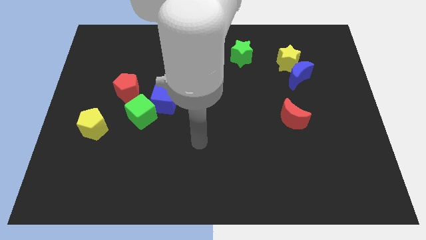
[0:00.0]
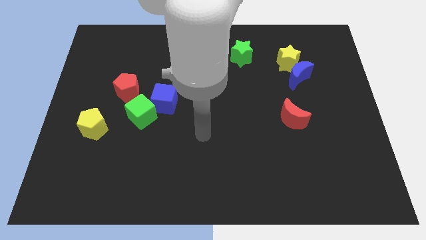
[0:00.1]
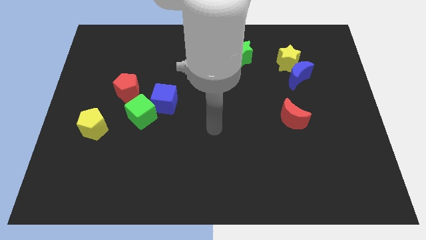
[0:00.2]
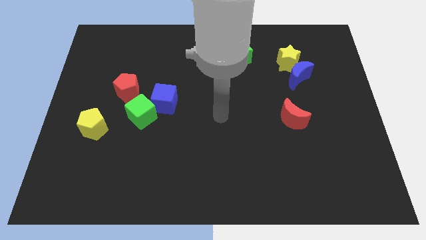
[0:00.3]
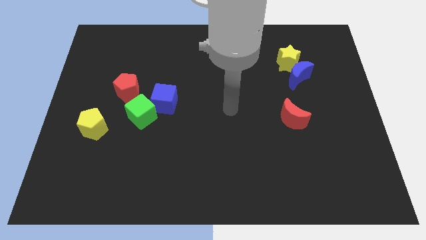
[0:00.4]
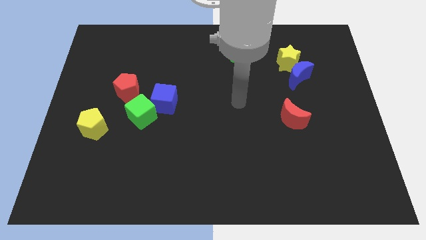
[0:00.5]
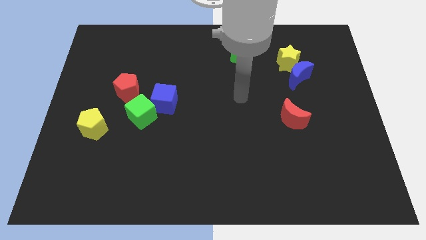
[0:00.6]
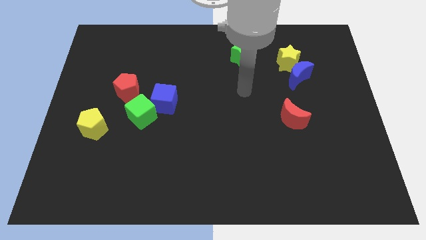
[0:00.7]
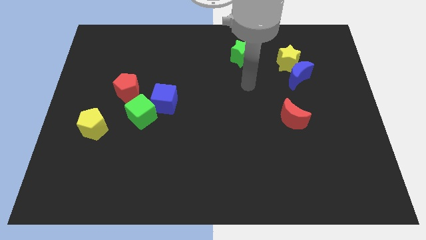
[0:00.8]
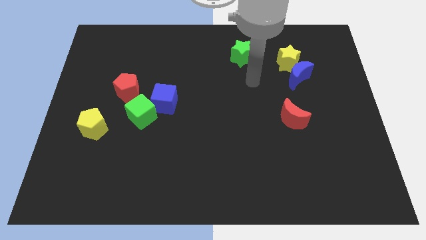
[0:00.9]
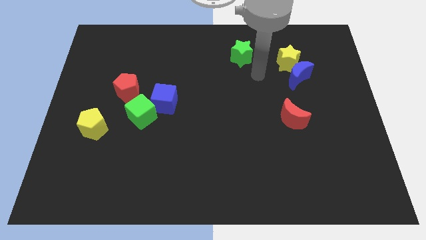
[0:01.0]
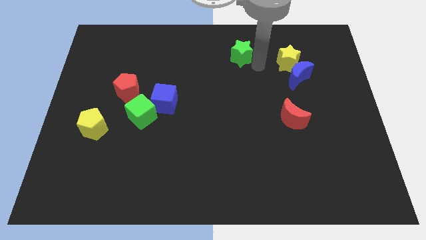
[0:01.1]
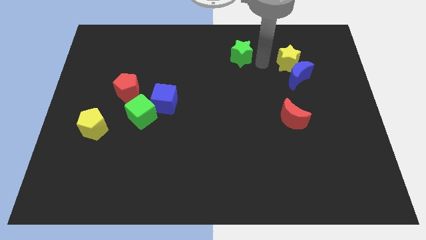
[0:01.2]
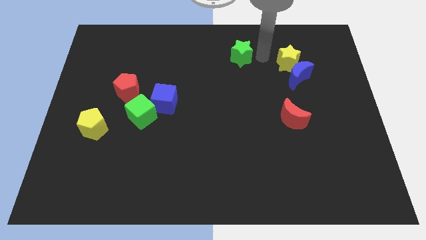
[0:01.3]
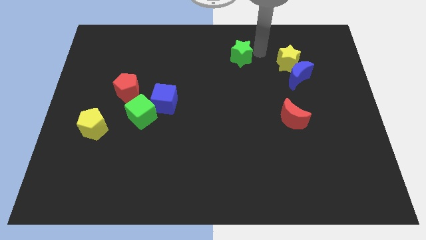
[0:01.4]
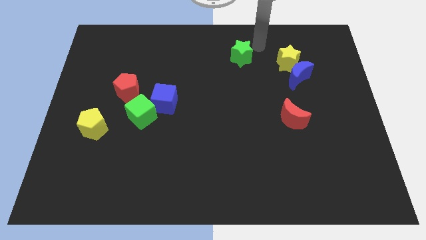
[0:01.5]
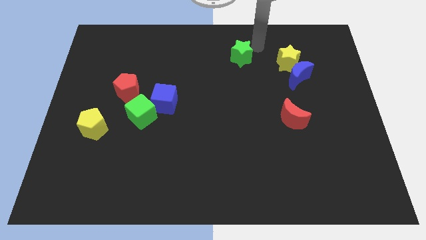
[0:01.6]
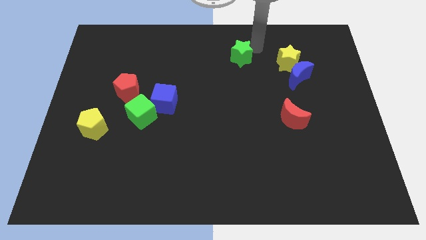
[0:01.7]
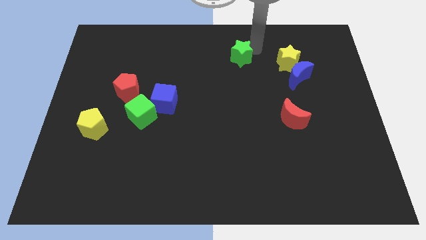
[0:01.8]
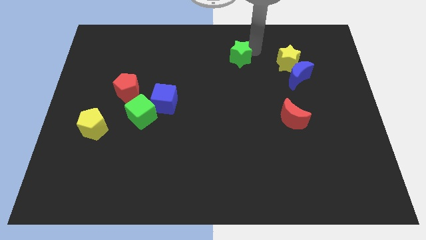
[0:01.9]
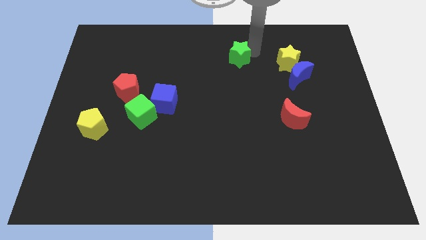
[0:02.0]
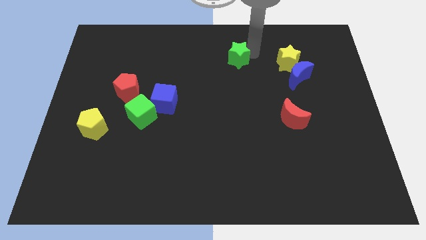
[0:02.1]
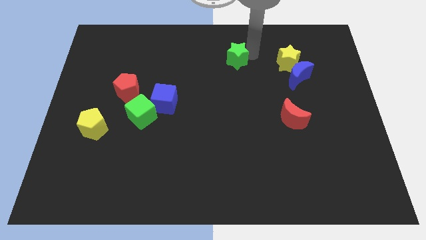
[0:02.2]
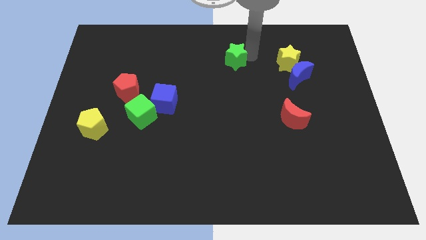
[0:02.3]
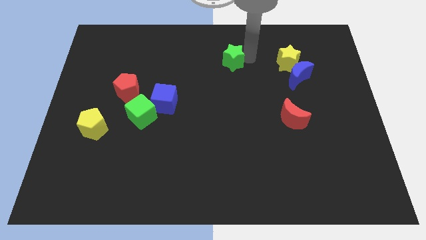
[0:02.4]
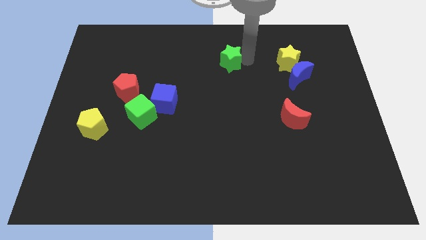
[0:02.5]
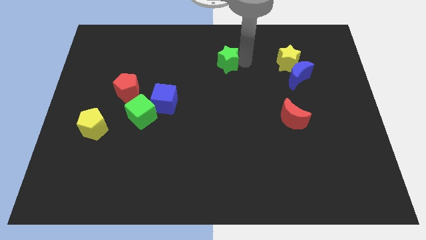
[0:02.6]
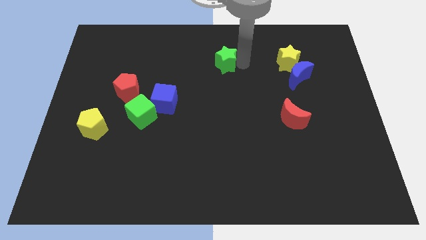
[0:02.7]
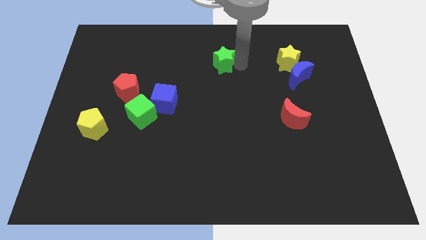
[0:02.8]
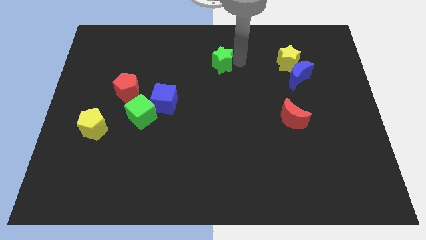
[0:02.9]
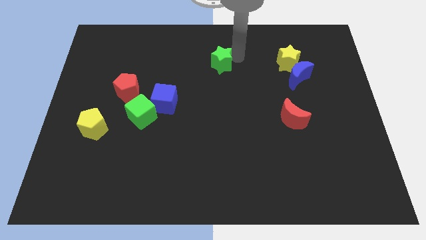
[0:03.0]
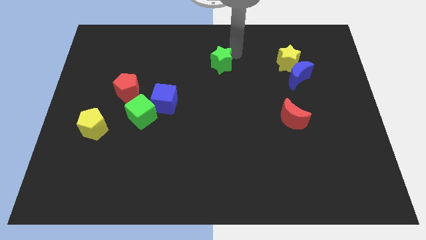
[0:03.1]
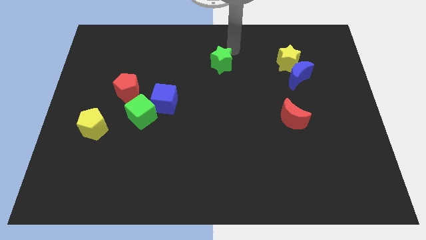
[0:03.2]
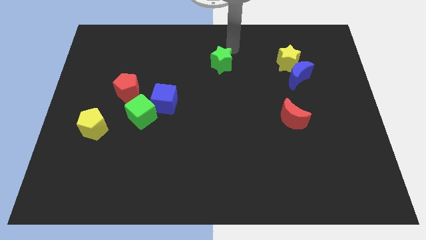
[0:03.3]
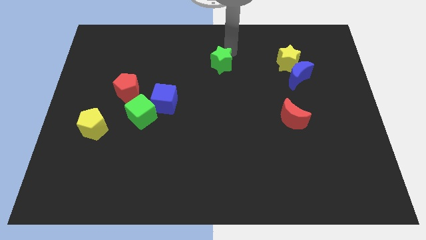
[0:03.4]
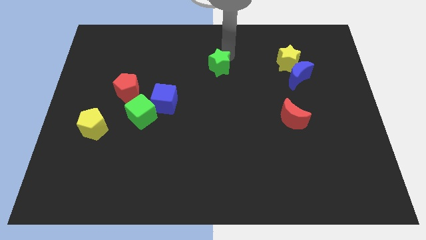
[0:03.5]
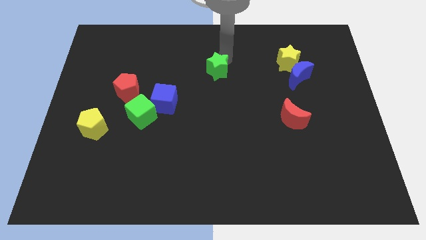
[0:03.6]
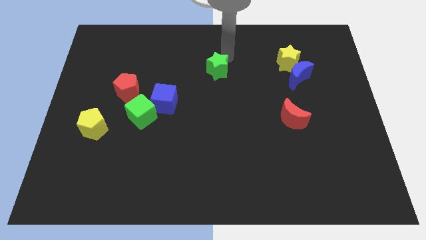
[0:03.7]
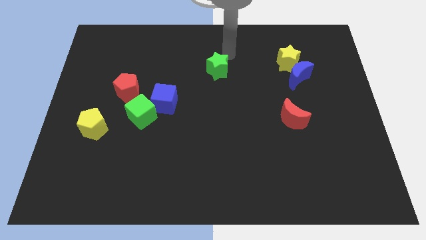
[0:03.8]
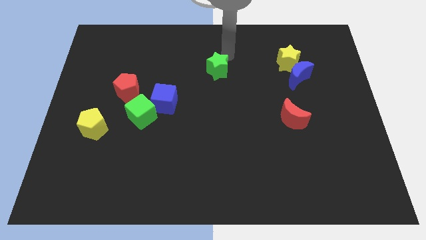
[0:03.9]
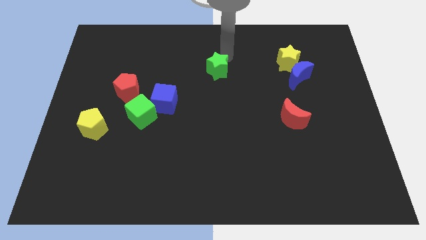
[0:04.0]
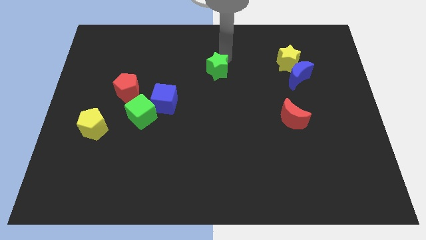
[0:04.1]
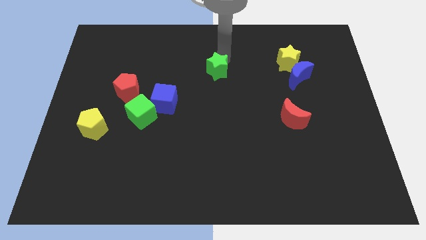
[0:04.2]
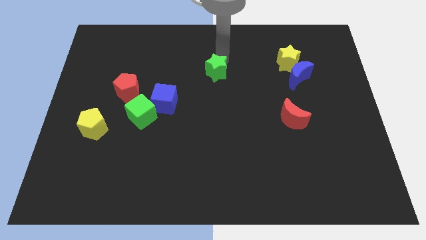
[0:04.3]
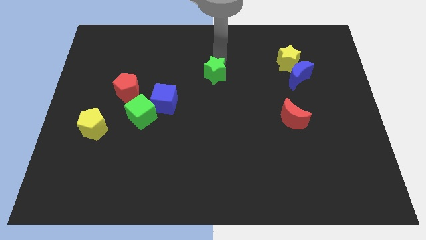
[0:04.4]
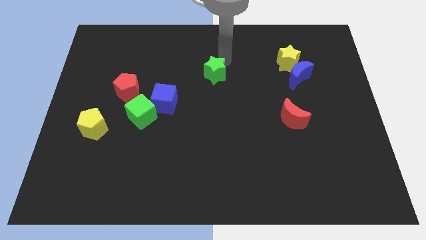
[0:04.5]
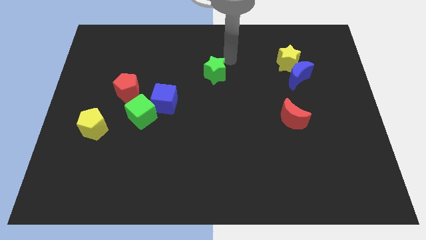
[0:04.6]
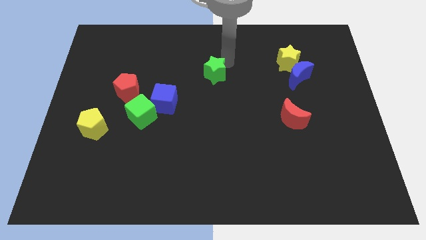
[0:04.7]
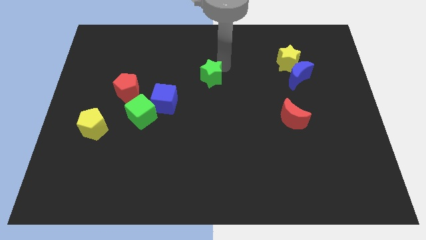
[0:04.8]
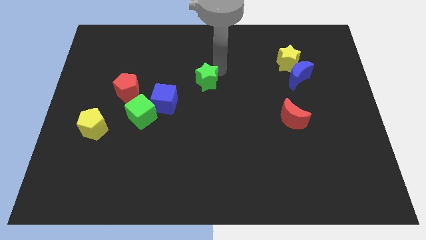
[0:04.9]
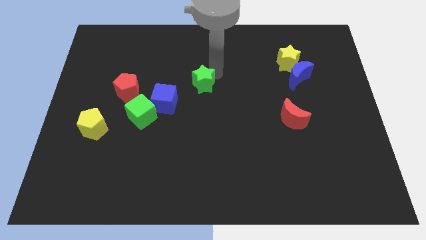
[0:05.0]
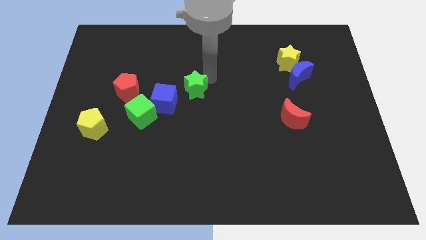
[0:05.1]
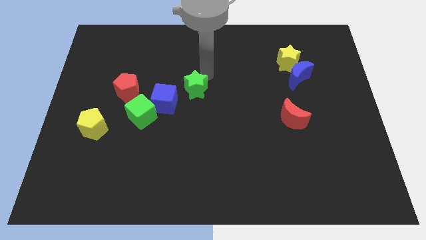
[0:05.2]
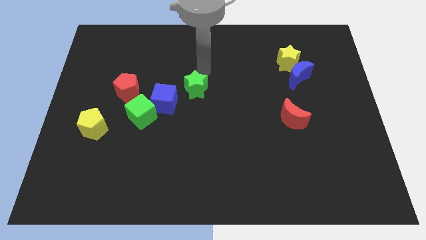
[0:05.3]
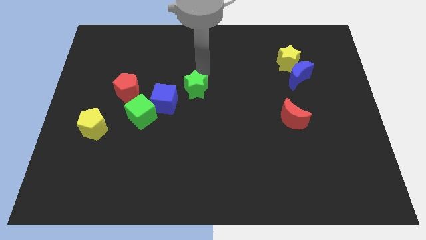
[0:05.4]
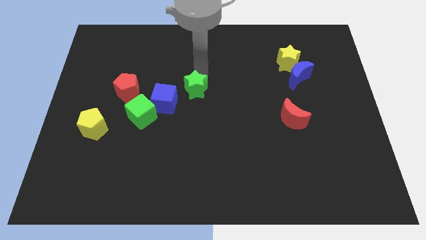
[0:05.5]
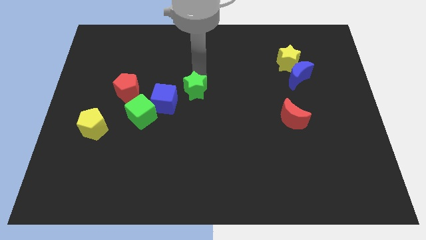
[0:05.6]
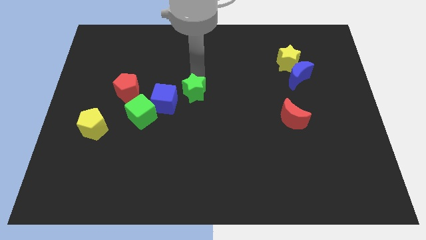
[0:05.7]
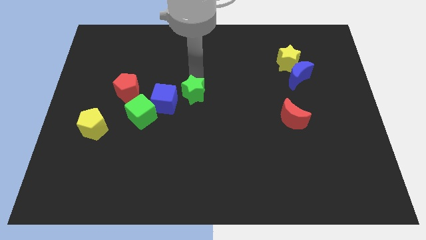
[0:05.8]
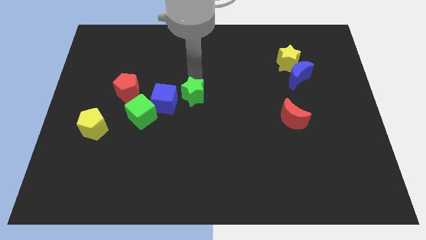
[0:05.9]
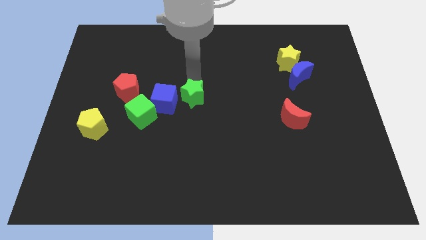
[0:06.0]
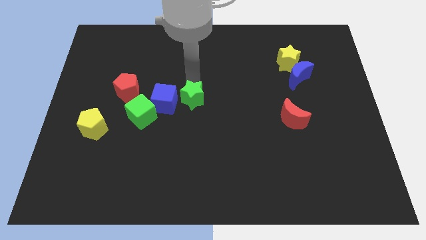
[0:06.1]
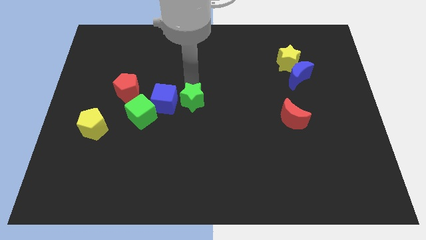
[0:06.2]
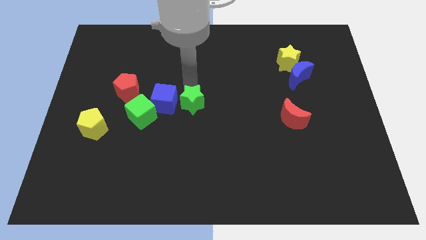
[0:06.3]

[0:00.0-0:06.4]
push the green star down and left diagonally

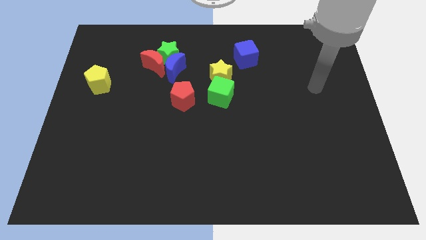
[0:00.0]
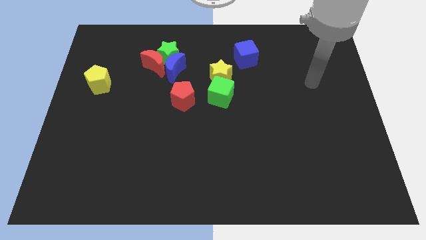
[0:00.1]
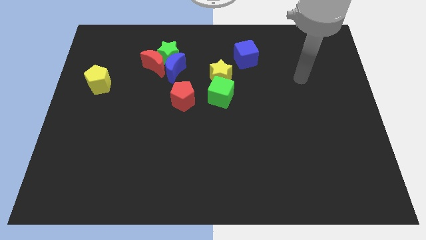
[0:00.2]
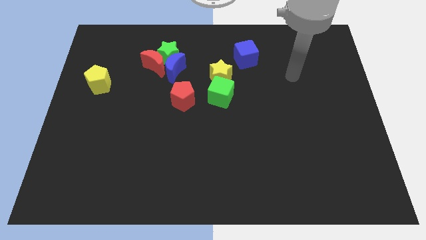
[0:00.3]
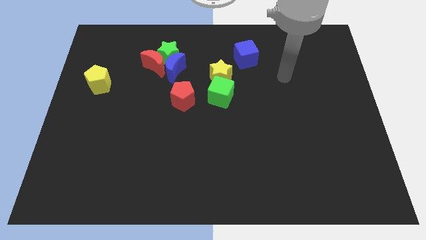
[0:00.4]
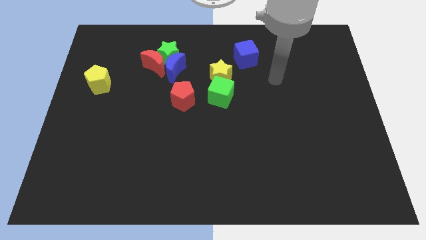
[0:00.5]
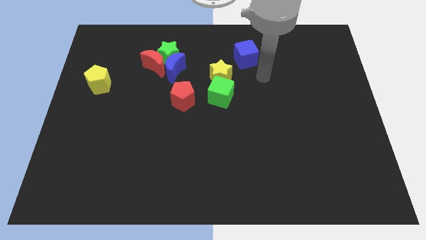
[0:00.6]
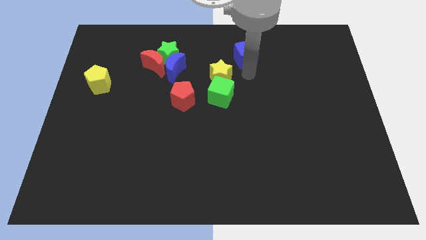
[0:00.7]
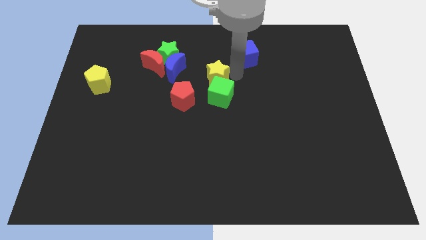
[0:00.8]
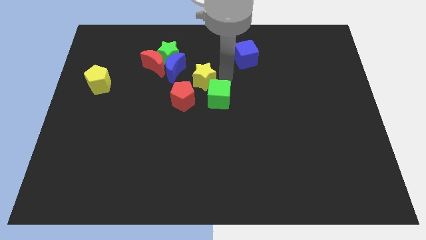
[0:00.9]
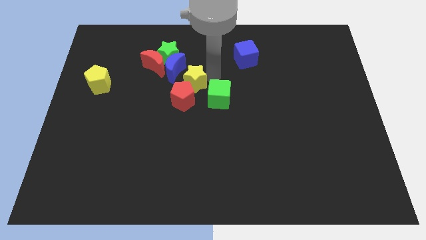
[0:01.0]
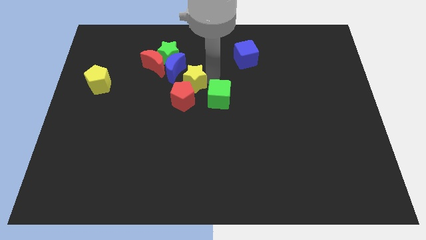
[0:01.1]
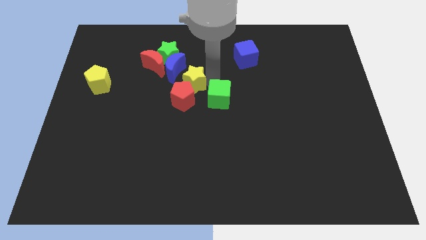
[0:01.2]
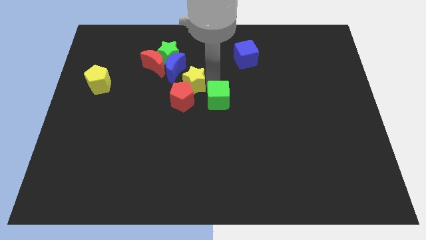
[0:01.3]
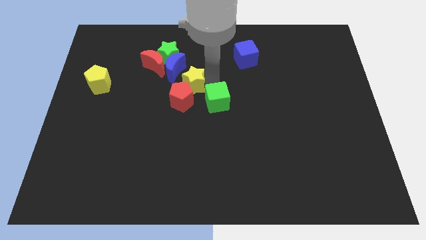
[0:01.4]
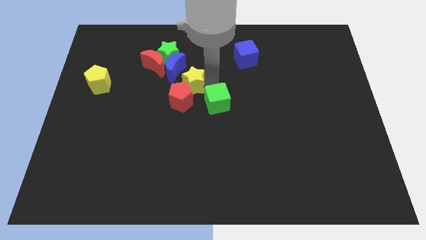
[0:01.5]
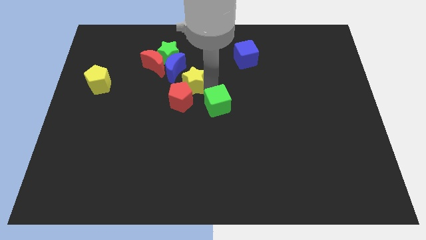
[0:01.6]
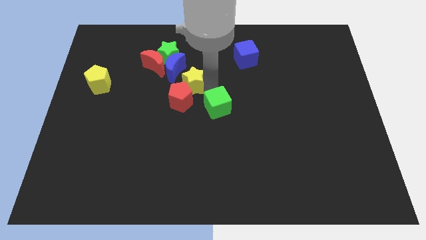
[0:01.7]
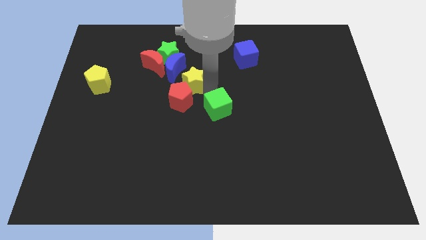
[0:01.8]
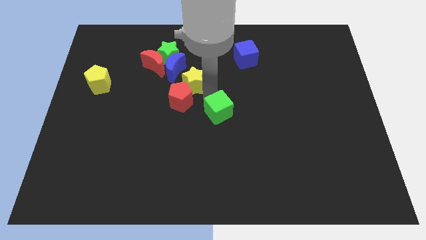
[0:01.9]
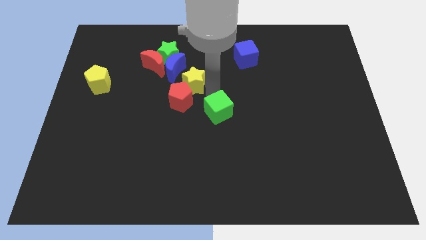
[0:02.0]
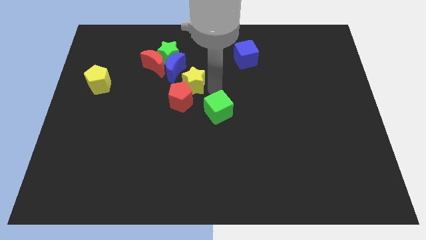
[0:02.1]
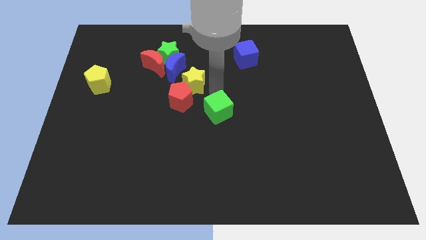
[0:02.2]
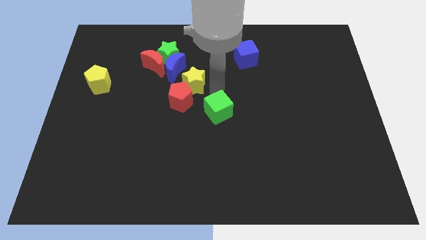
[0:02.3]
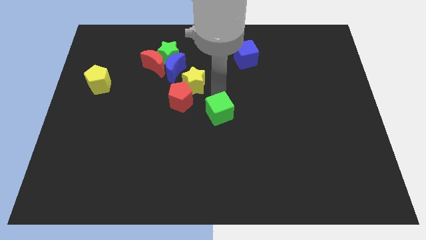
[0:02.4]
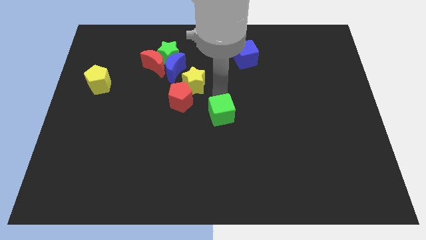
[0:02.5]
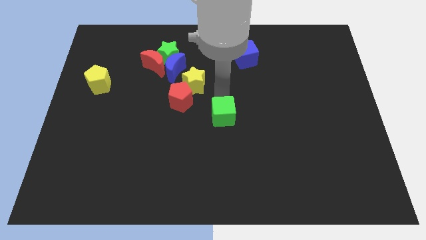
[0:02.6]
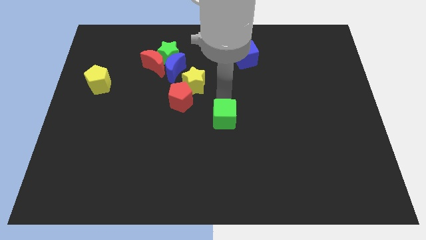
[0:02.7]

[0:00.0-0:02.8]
slightly move the green cube downwards
